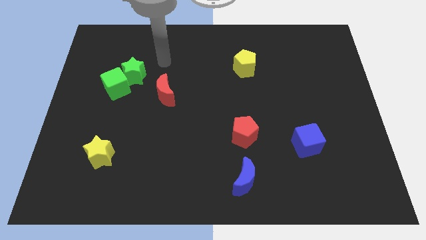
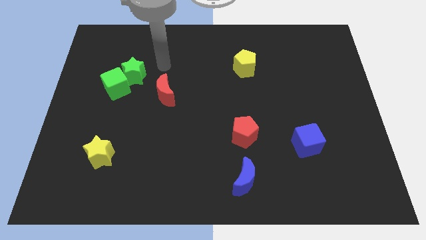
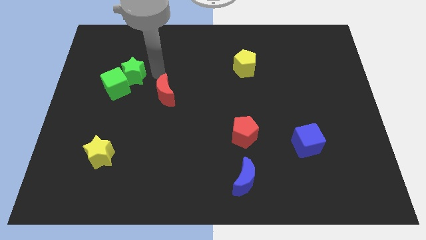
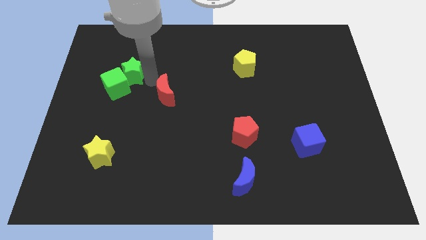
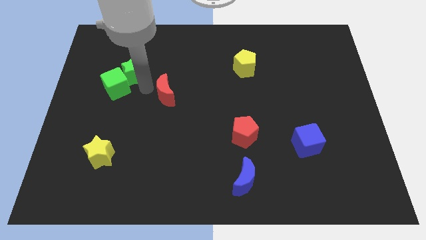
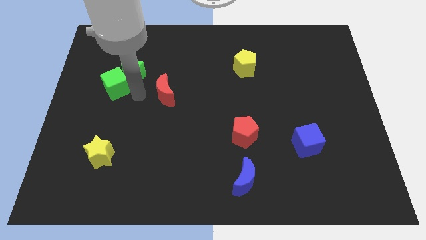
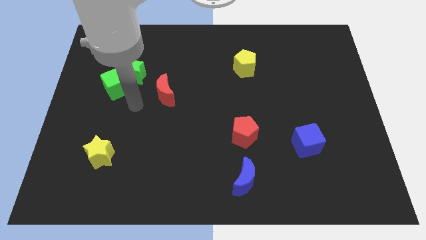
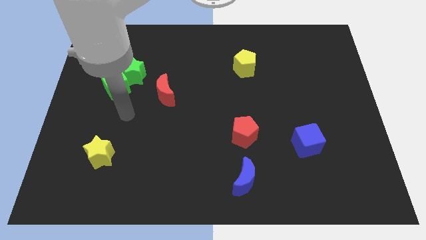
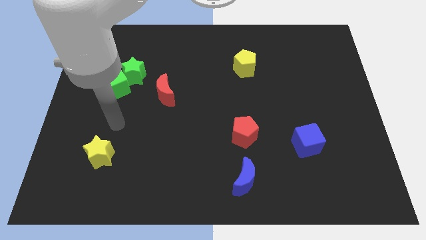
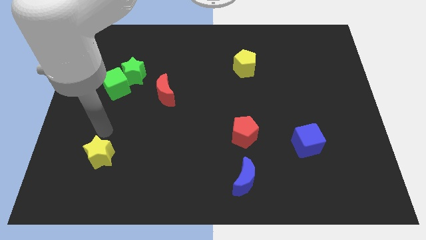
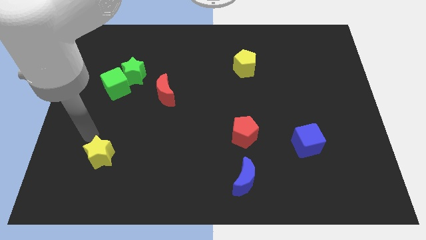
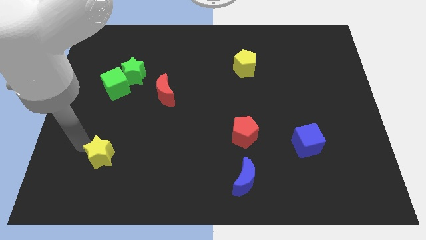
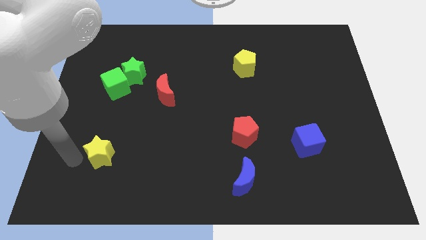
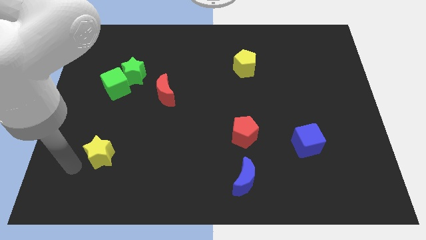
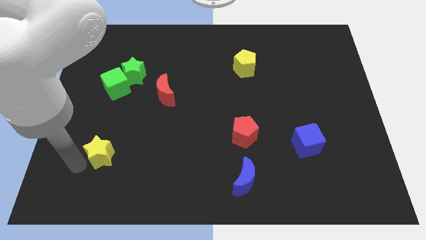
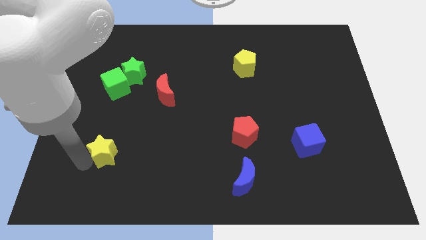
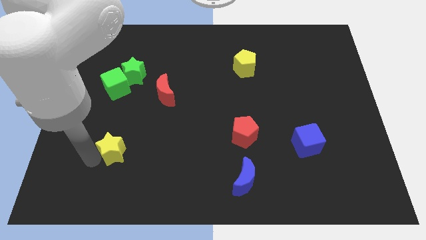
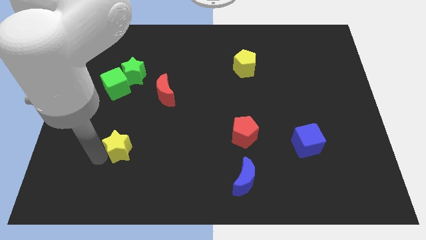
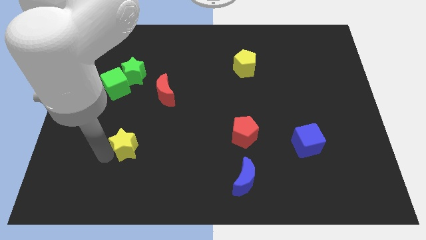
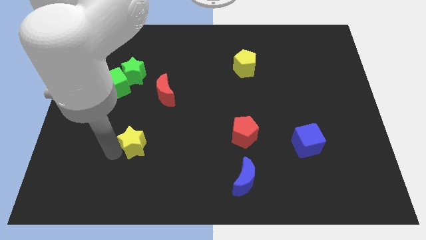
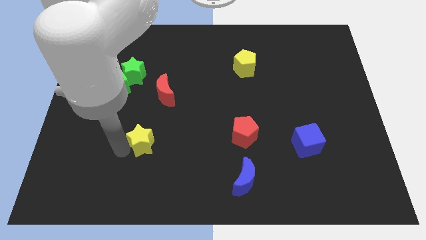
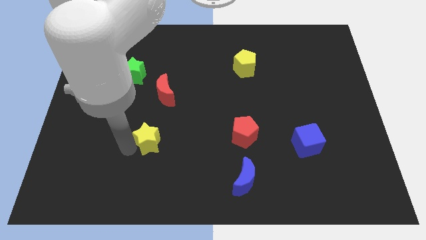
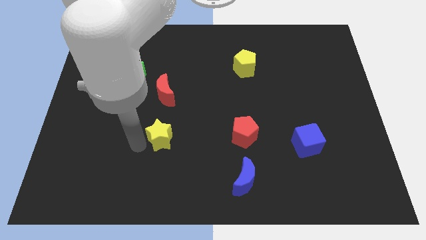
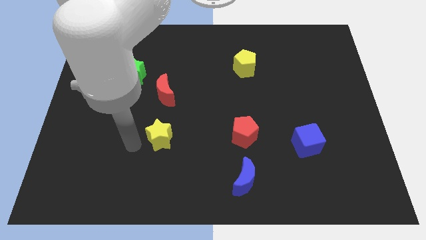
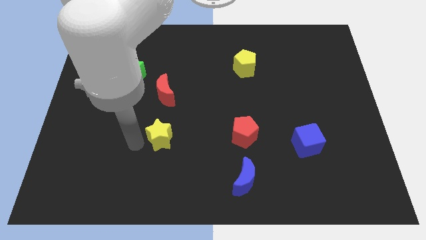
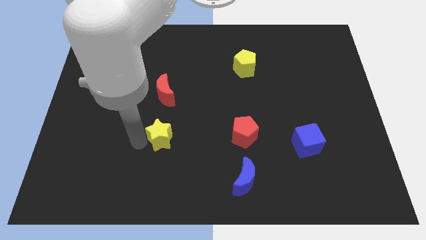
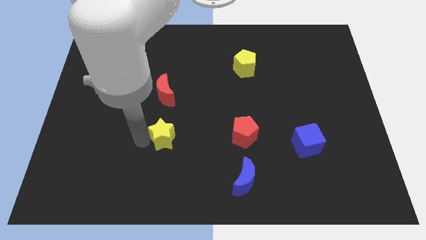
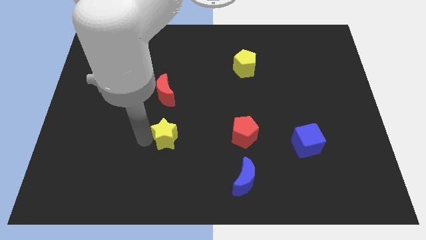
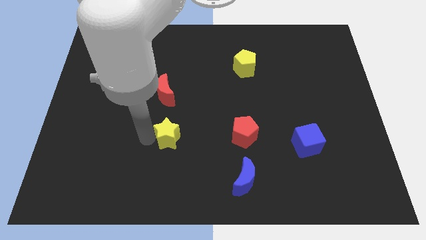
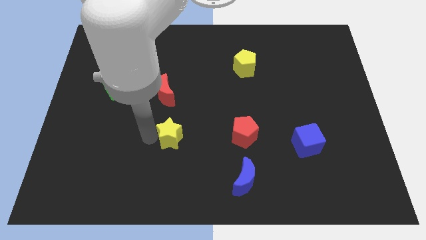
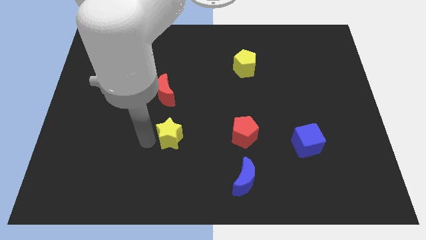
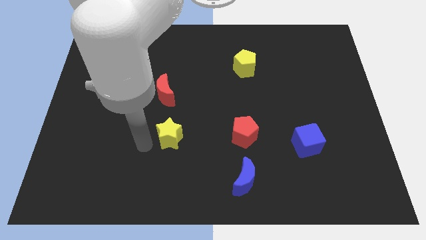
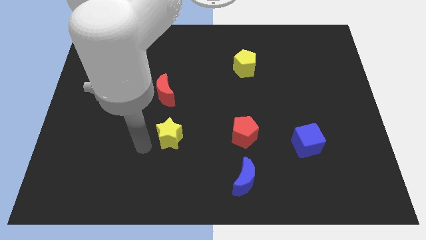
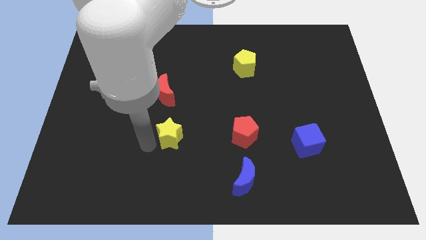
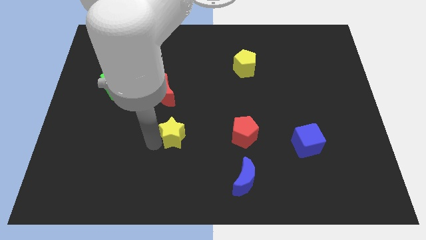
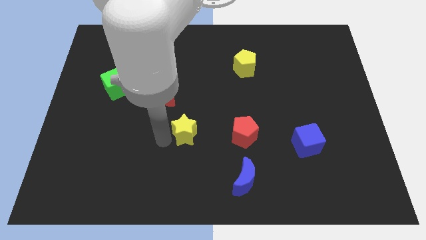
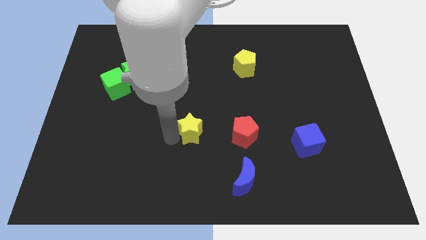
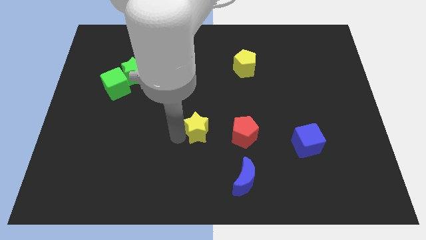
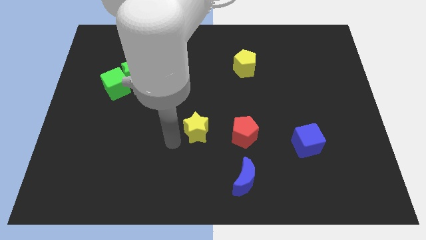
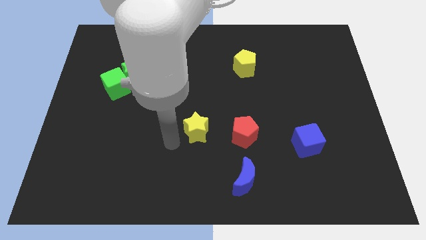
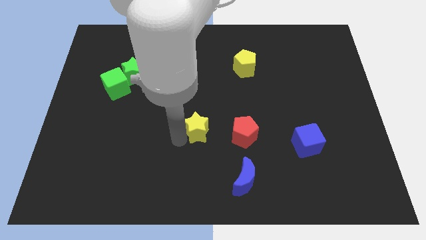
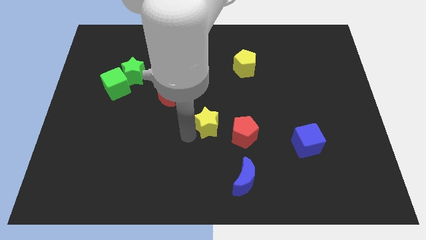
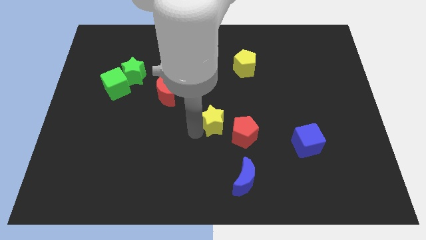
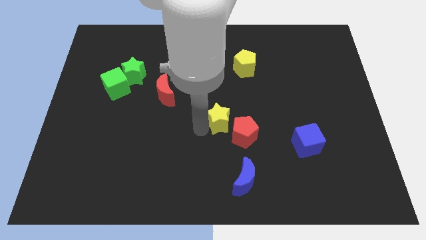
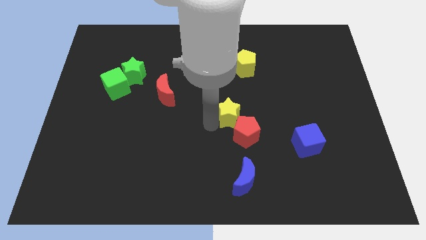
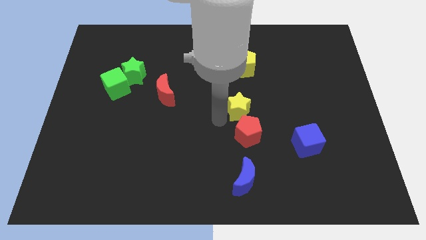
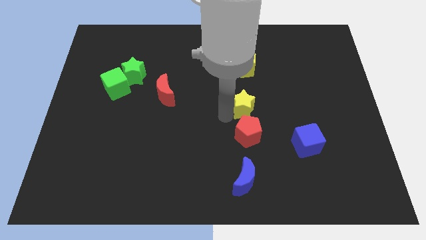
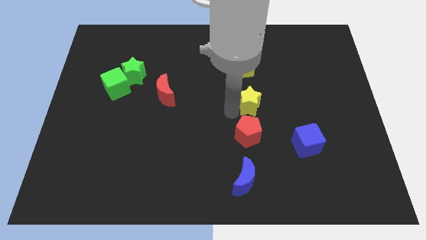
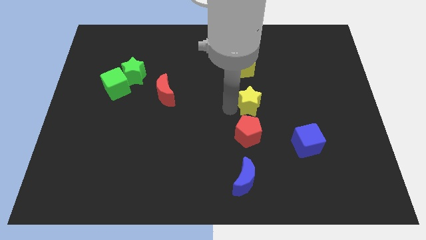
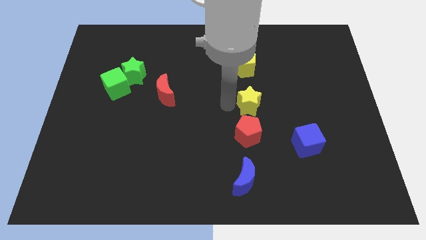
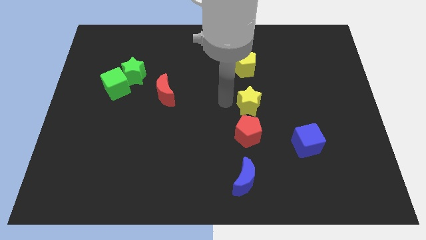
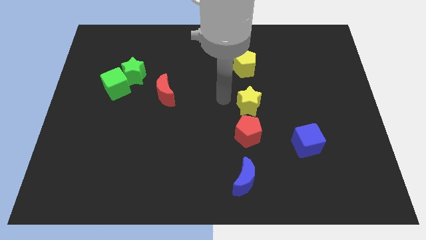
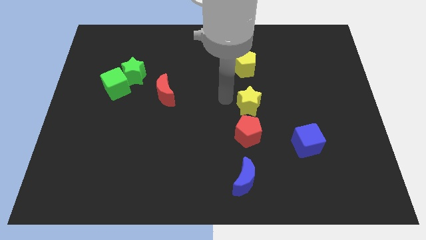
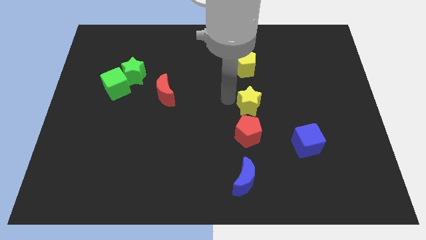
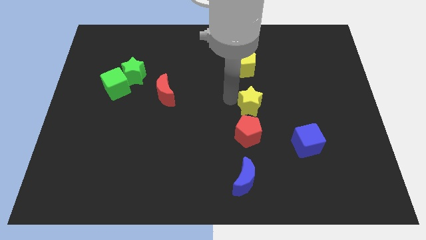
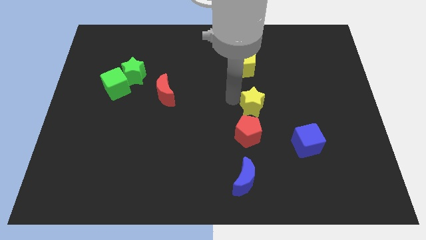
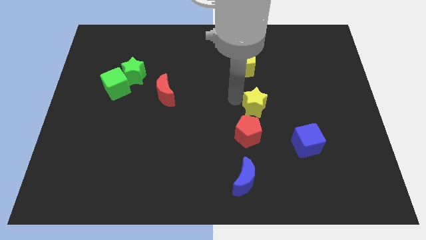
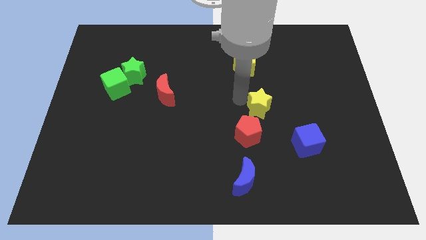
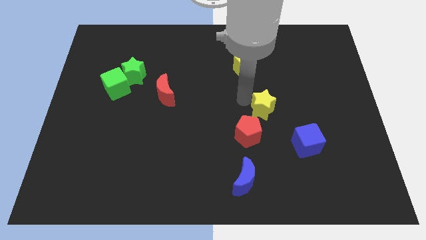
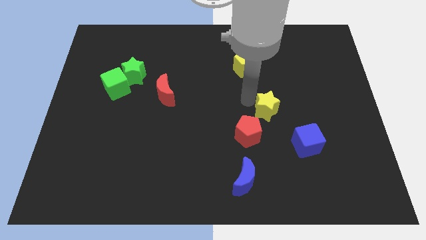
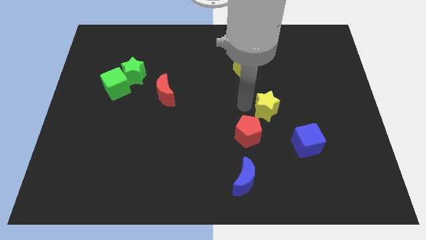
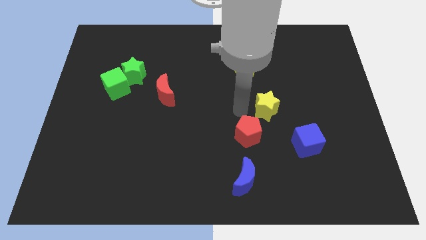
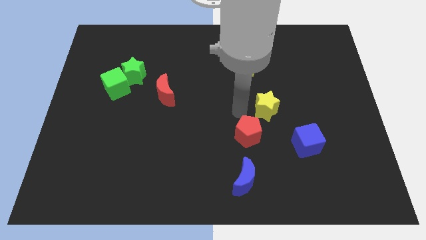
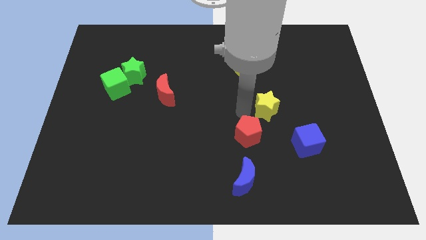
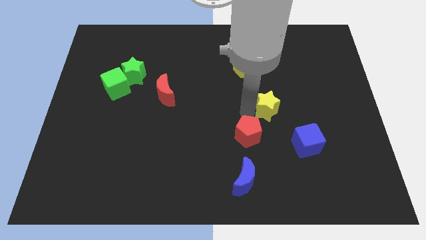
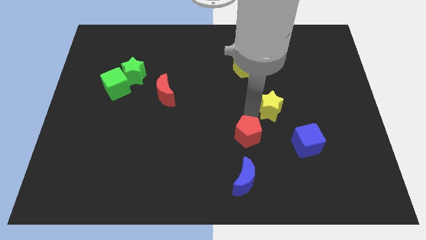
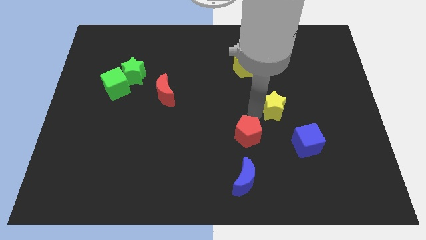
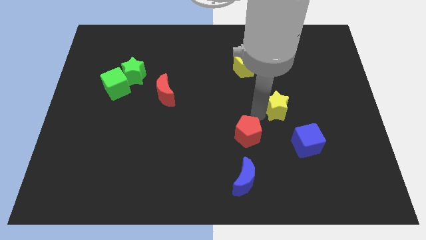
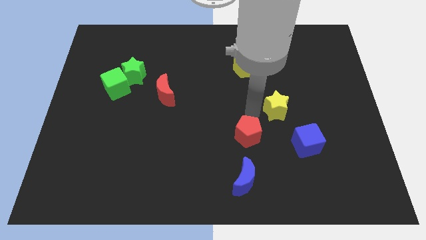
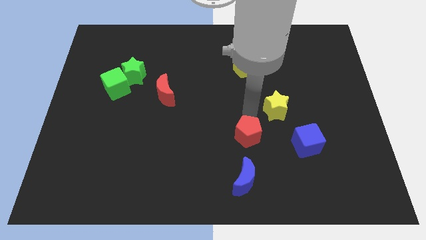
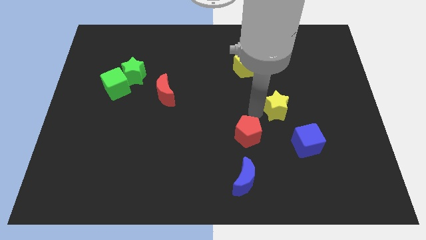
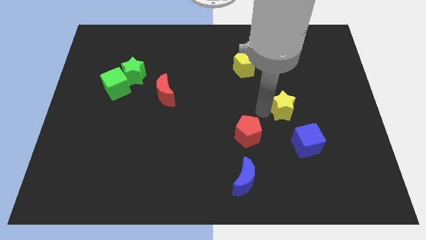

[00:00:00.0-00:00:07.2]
move the yellow star above the blue cube

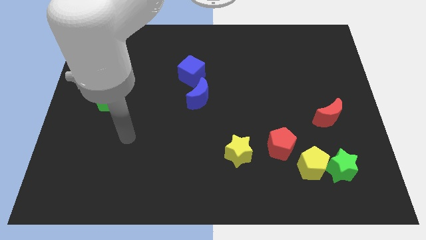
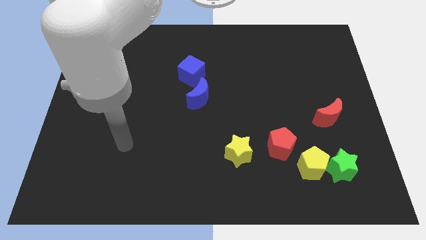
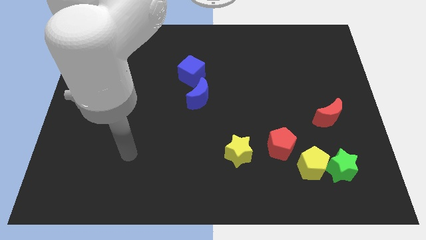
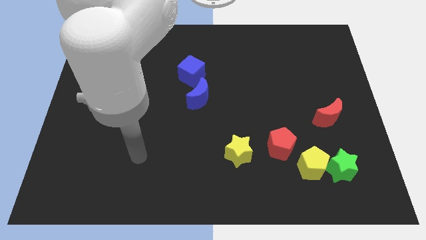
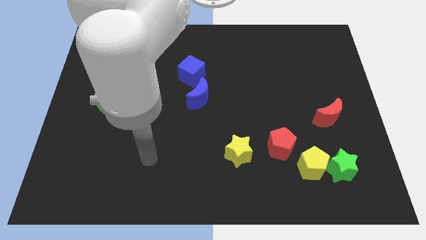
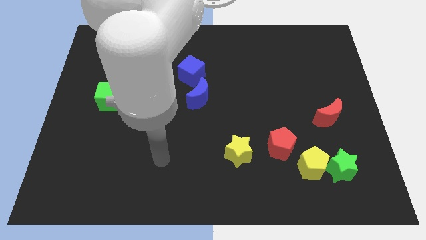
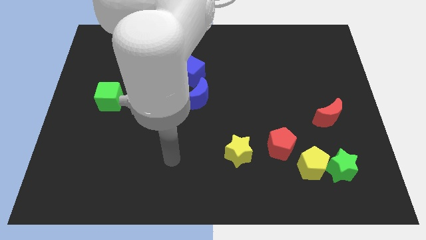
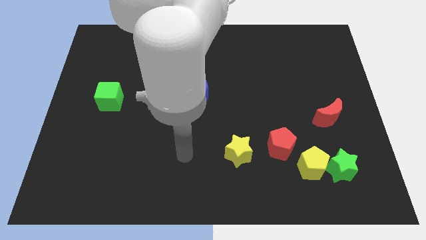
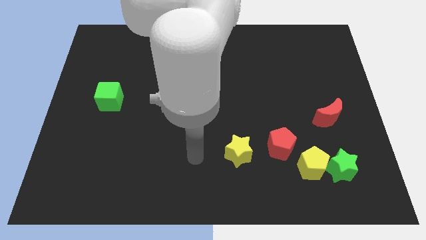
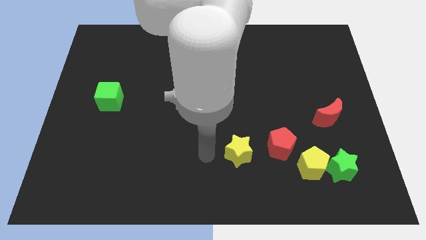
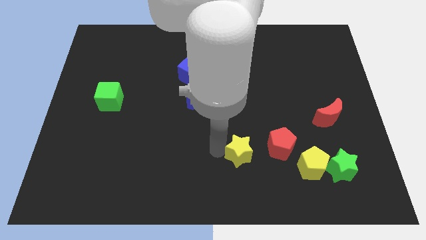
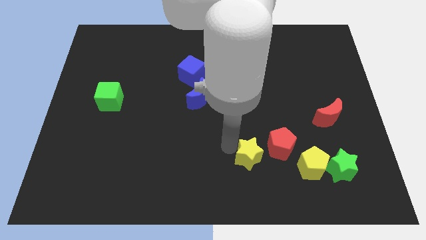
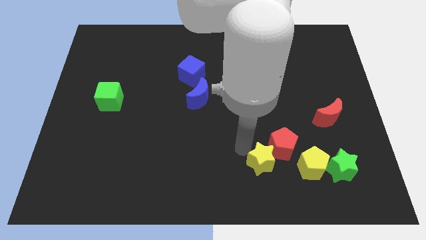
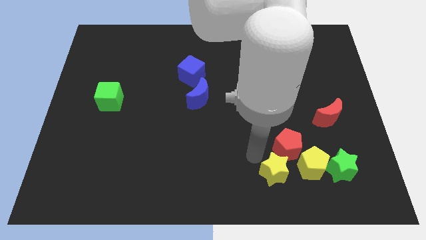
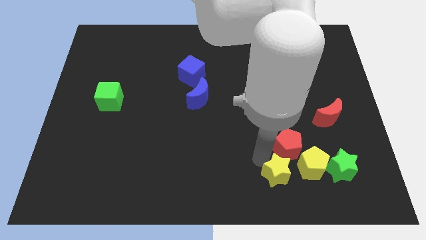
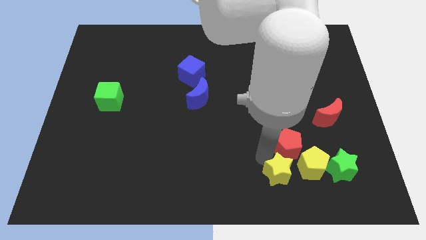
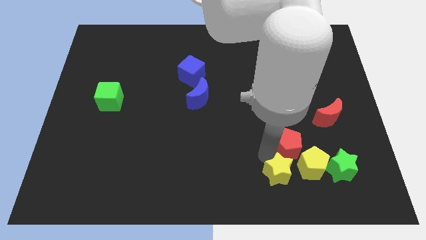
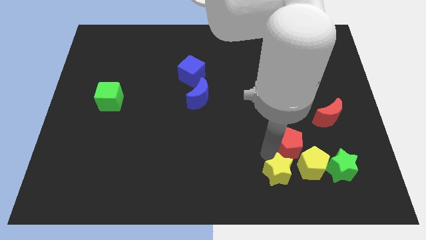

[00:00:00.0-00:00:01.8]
push the red pentagon to the bottom left of the red moon
